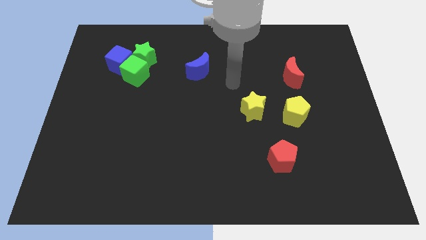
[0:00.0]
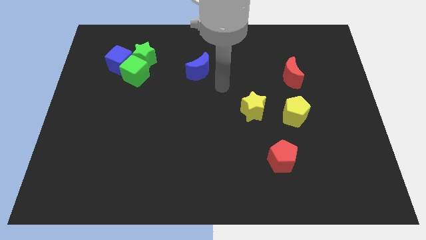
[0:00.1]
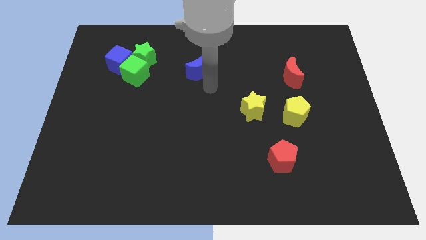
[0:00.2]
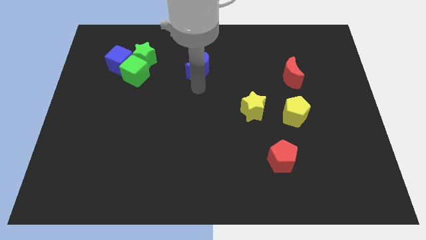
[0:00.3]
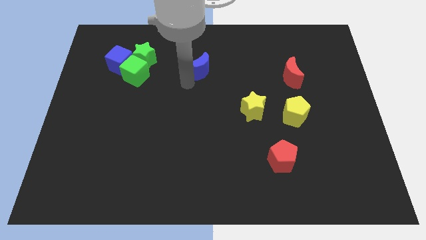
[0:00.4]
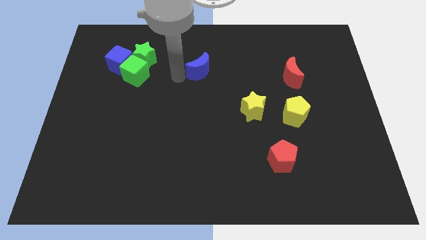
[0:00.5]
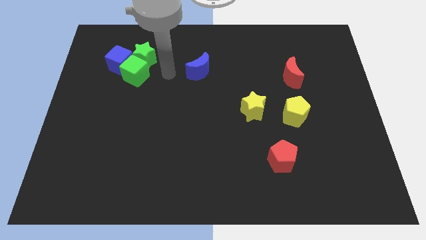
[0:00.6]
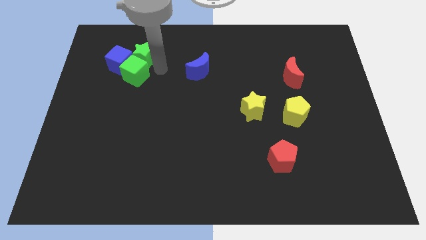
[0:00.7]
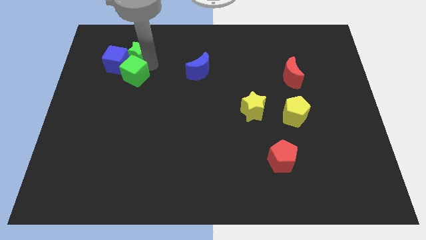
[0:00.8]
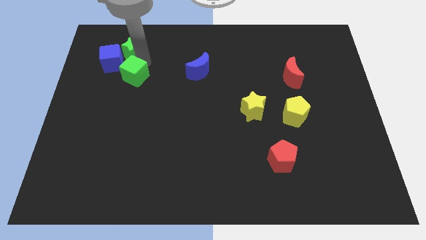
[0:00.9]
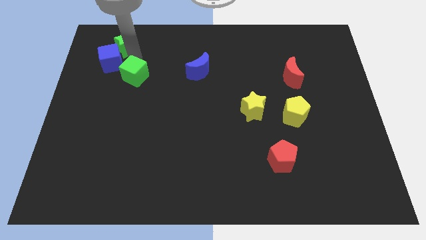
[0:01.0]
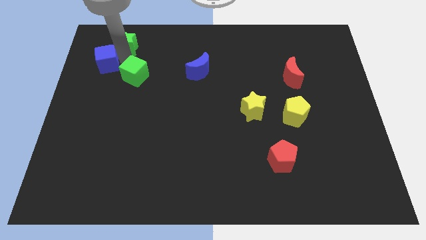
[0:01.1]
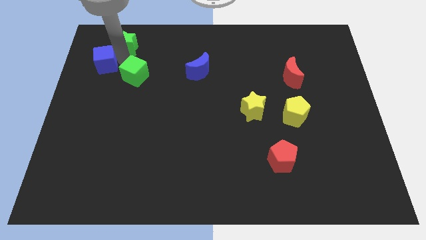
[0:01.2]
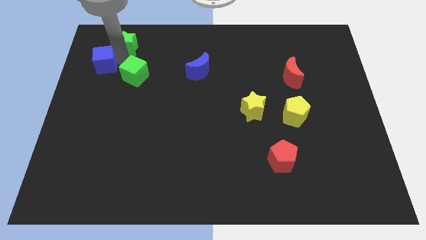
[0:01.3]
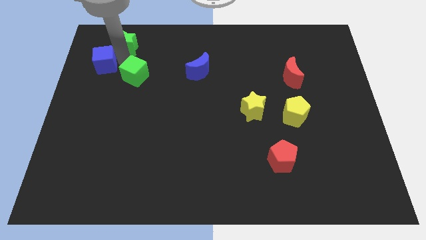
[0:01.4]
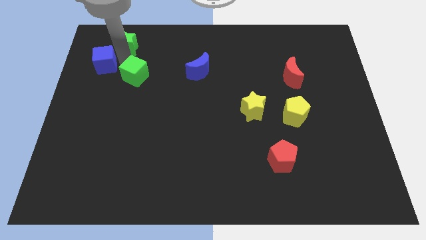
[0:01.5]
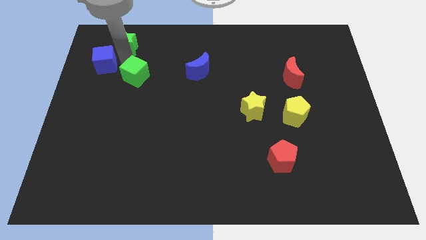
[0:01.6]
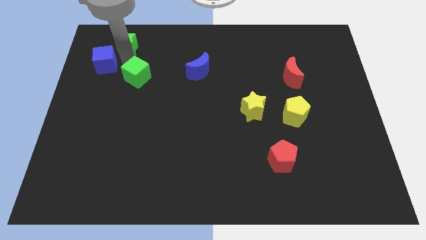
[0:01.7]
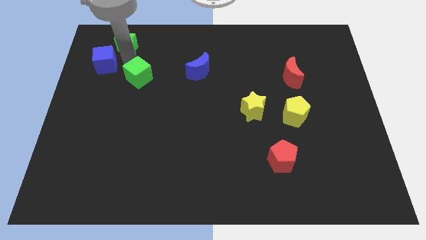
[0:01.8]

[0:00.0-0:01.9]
pull the green cube apart from the blue cube and green star

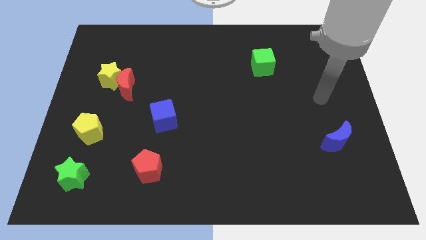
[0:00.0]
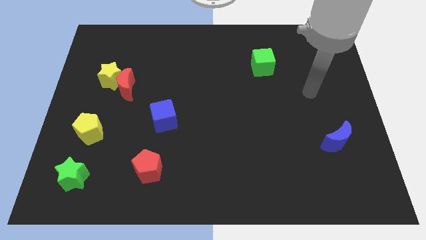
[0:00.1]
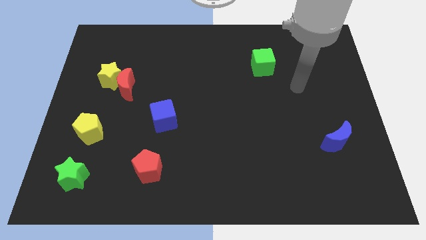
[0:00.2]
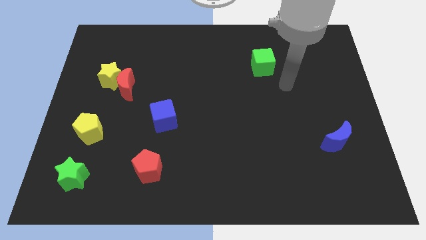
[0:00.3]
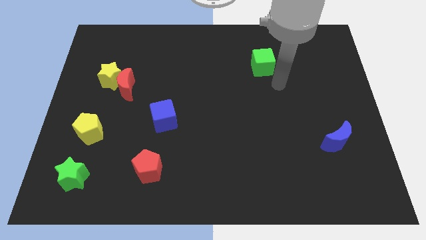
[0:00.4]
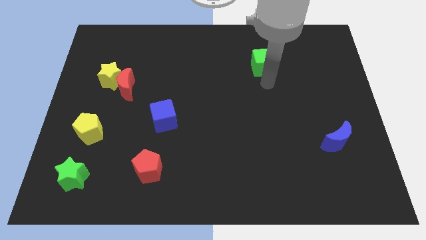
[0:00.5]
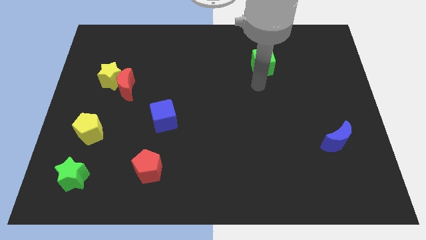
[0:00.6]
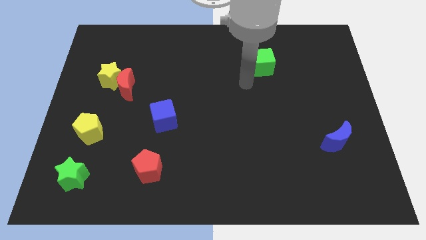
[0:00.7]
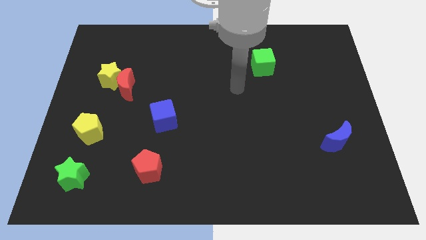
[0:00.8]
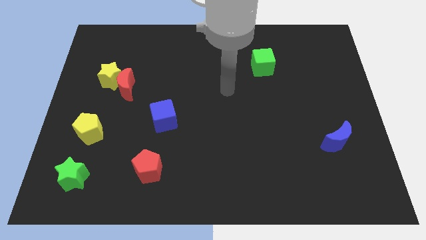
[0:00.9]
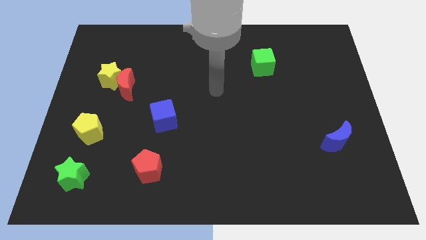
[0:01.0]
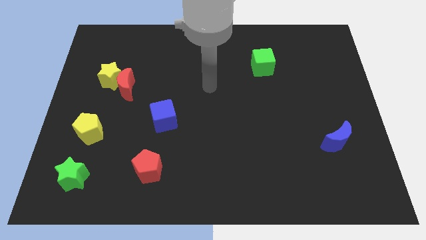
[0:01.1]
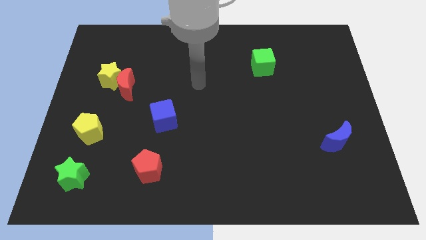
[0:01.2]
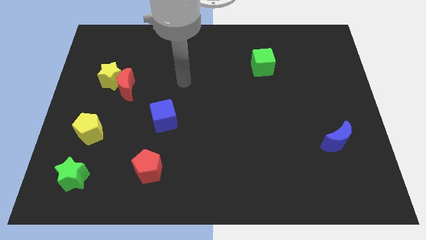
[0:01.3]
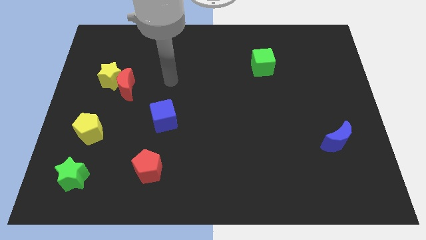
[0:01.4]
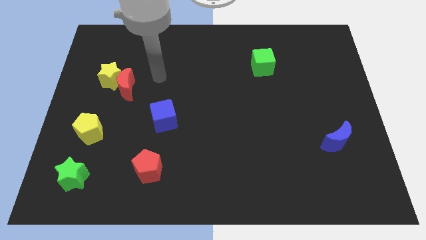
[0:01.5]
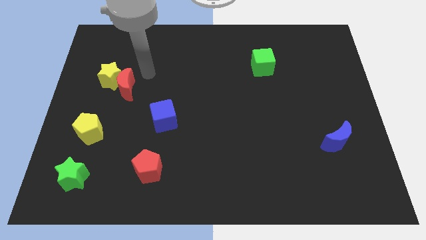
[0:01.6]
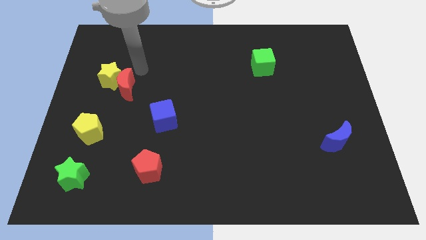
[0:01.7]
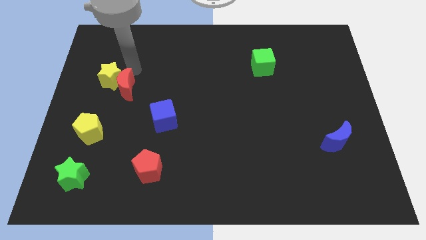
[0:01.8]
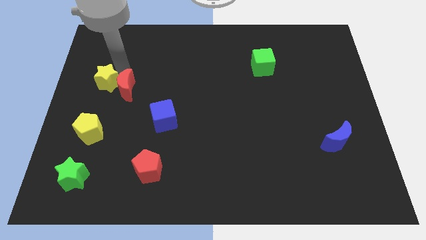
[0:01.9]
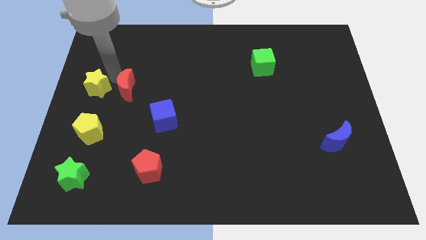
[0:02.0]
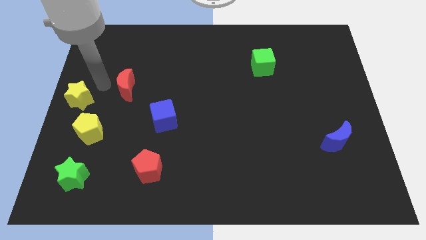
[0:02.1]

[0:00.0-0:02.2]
separate the red moon from the yellow star

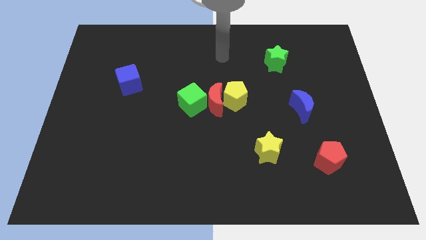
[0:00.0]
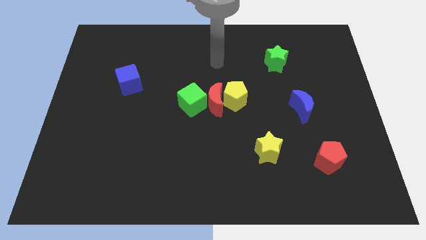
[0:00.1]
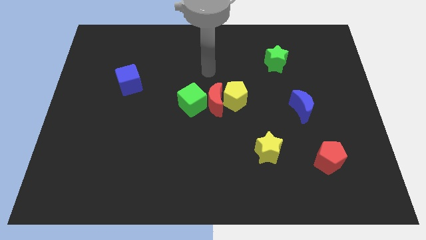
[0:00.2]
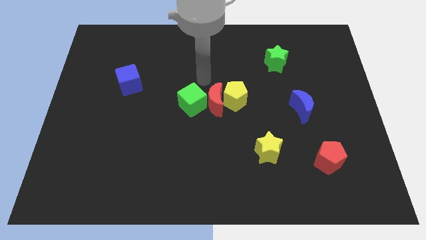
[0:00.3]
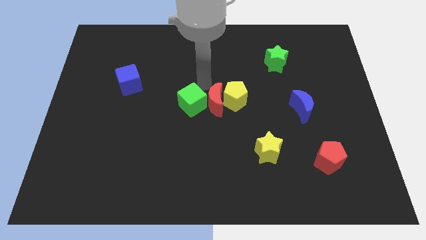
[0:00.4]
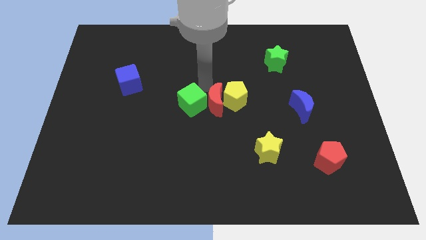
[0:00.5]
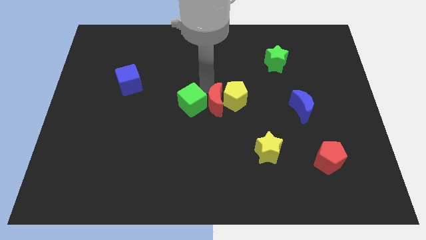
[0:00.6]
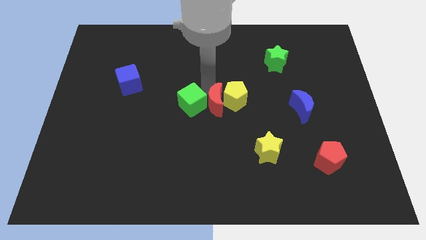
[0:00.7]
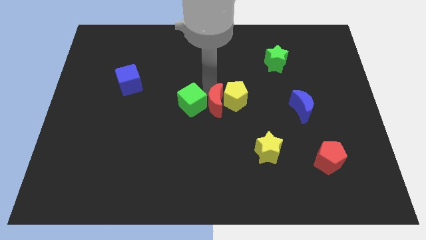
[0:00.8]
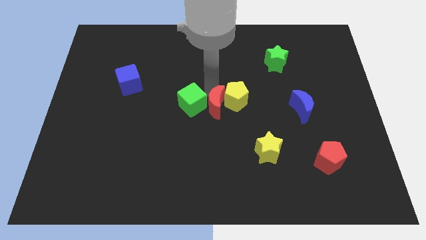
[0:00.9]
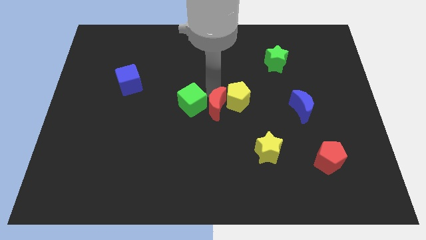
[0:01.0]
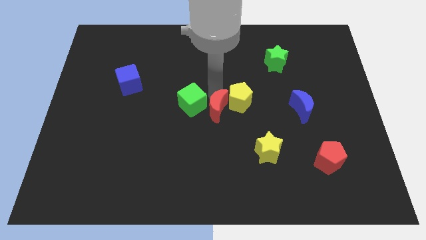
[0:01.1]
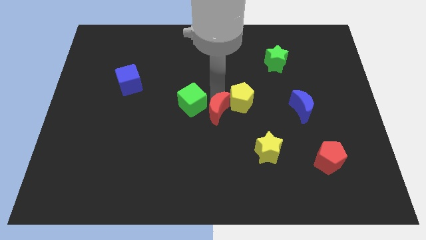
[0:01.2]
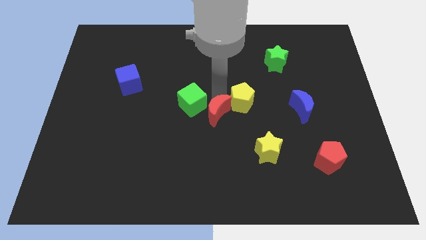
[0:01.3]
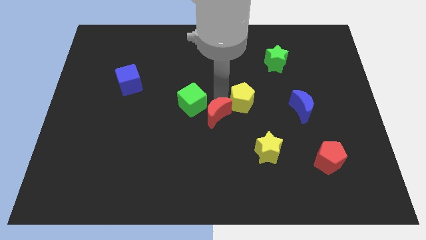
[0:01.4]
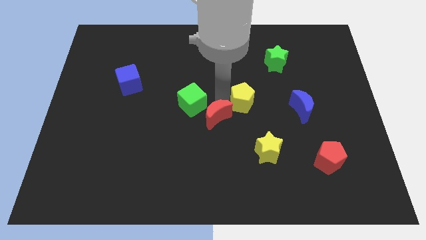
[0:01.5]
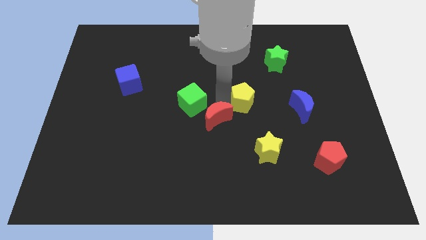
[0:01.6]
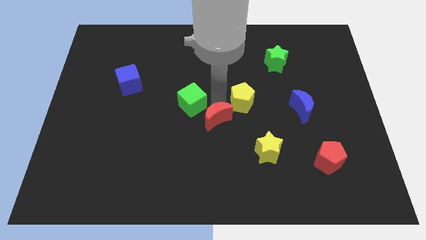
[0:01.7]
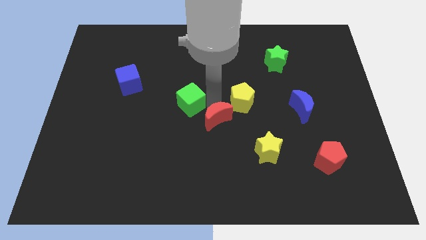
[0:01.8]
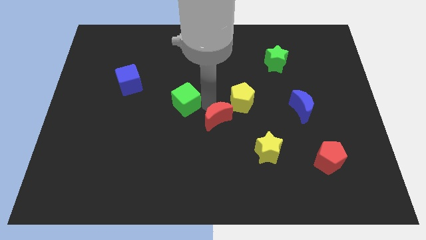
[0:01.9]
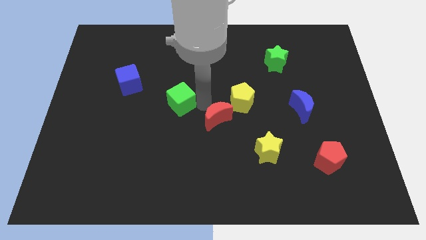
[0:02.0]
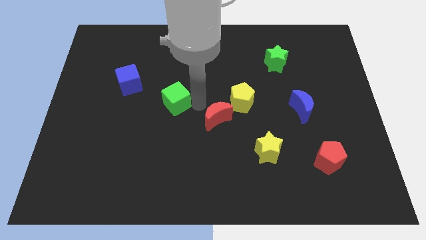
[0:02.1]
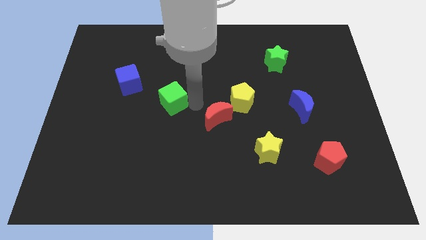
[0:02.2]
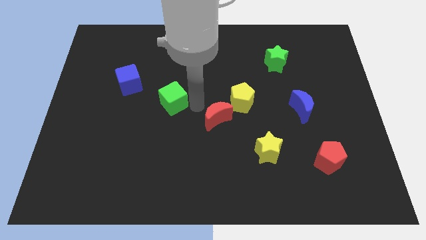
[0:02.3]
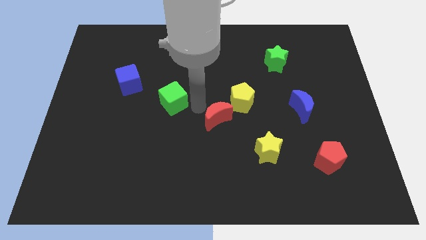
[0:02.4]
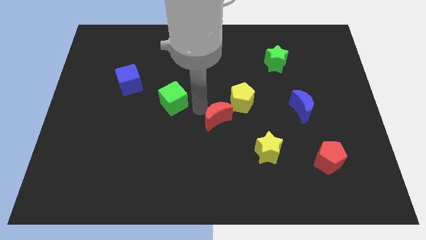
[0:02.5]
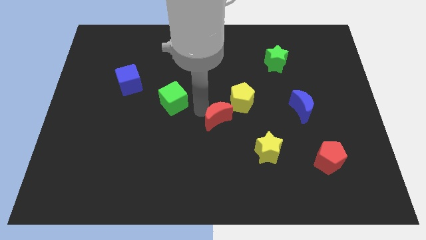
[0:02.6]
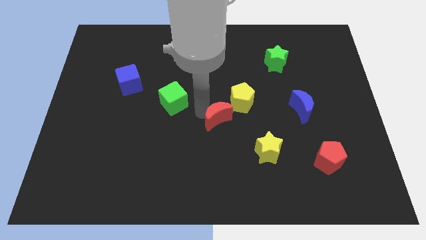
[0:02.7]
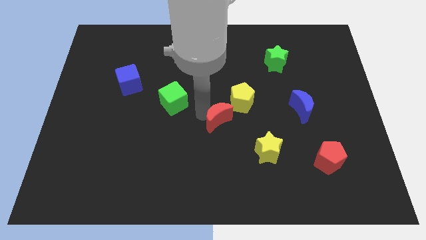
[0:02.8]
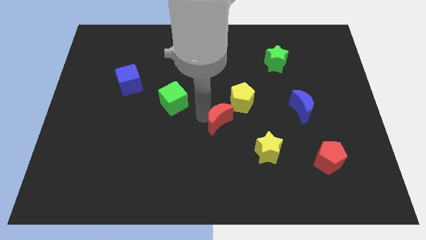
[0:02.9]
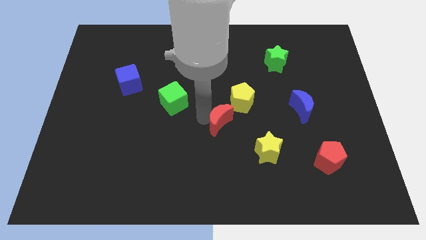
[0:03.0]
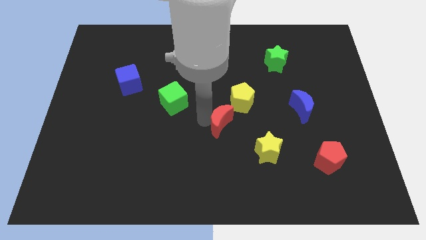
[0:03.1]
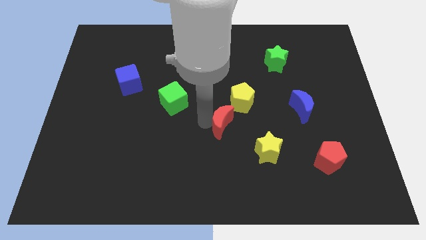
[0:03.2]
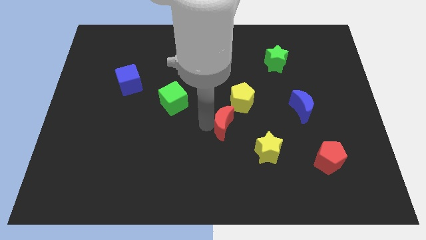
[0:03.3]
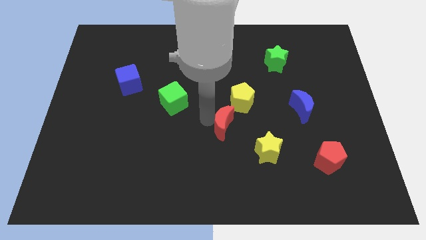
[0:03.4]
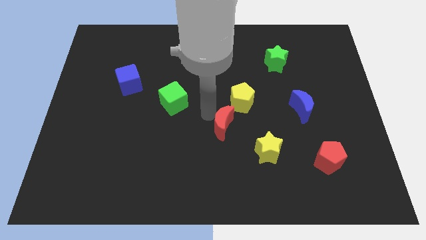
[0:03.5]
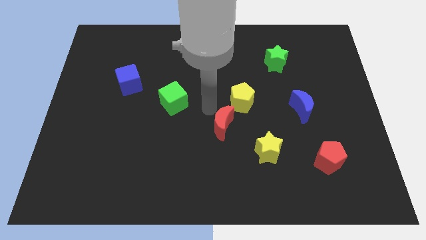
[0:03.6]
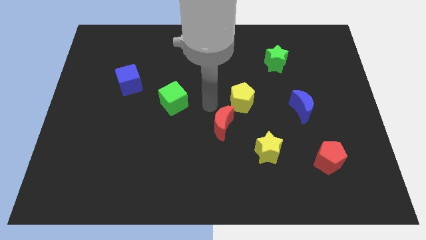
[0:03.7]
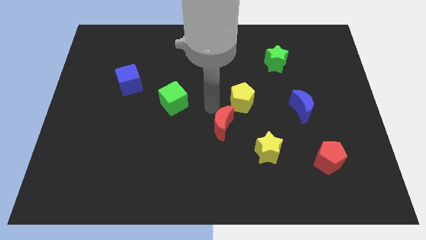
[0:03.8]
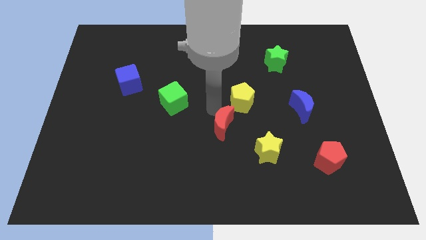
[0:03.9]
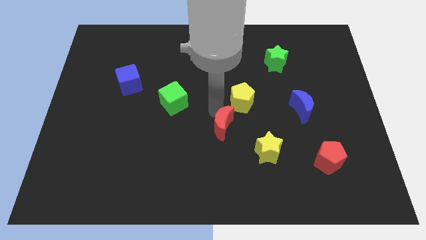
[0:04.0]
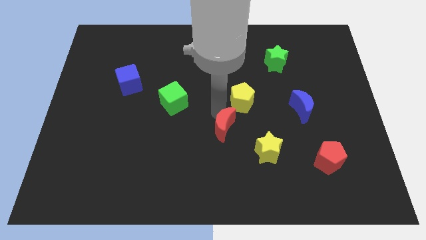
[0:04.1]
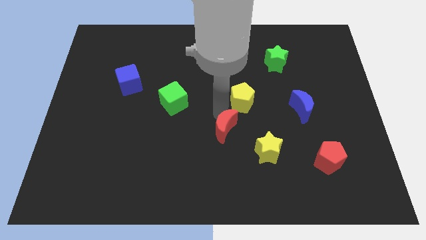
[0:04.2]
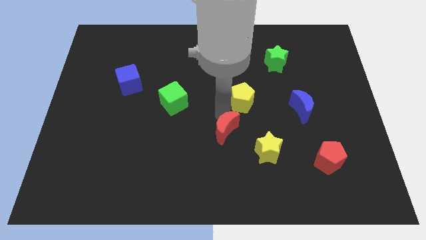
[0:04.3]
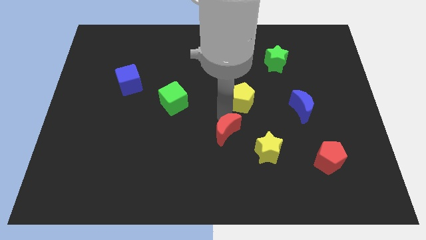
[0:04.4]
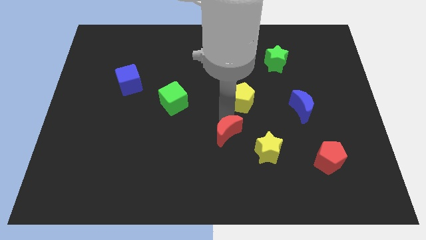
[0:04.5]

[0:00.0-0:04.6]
pull the red moon apart from the yellow pentagon and green cube

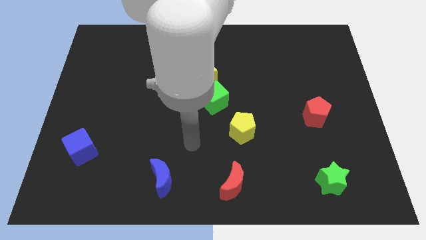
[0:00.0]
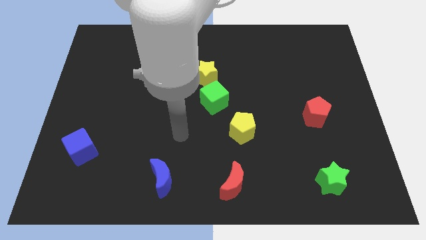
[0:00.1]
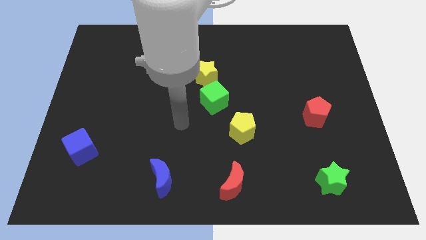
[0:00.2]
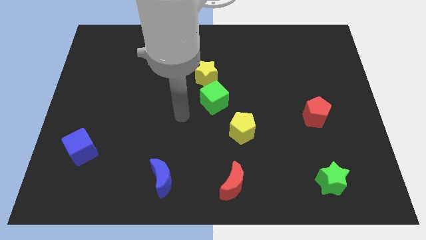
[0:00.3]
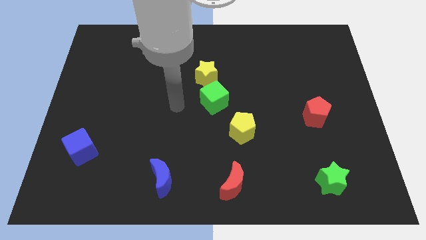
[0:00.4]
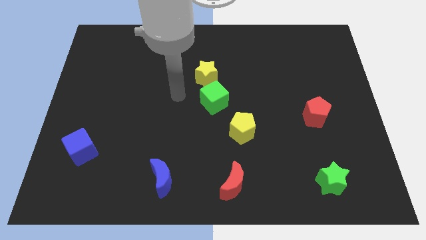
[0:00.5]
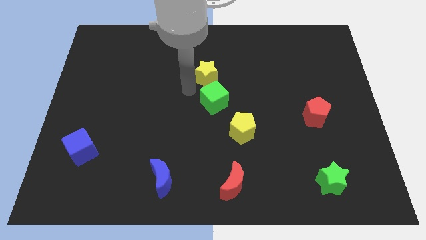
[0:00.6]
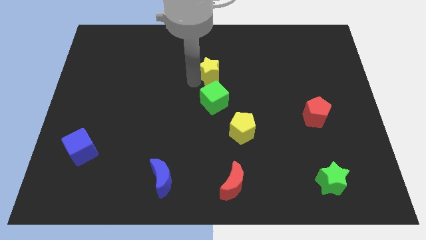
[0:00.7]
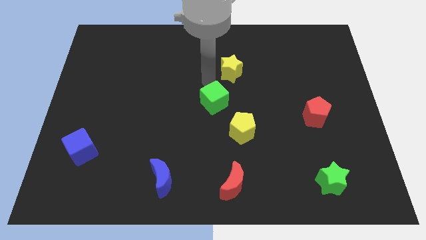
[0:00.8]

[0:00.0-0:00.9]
pull the green cube apart from the yellow star
